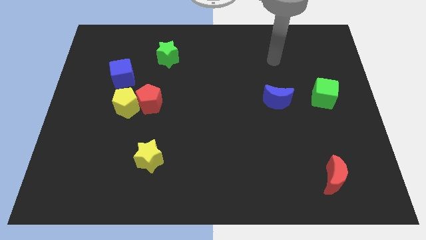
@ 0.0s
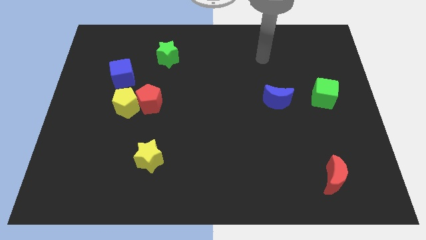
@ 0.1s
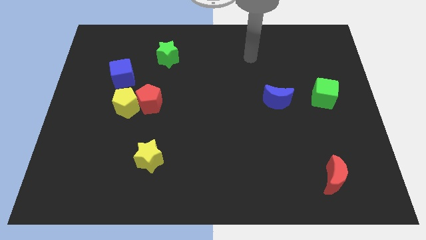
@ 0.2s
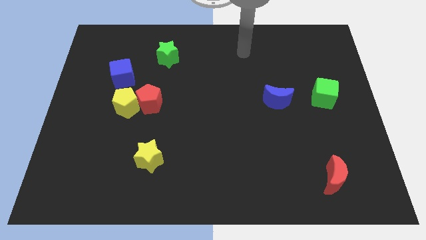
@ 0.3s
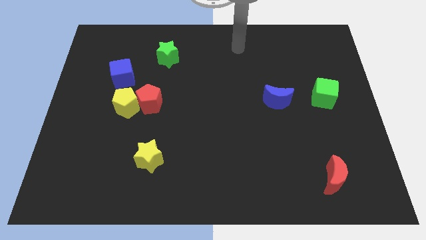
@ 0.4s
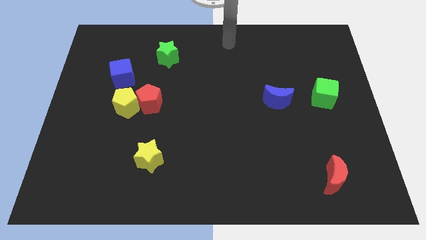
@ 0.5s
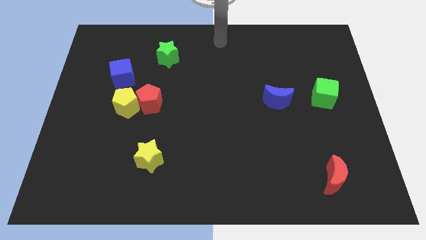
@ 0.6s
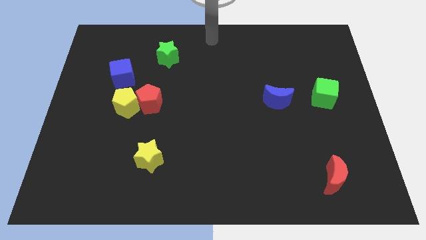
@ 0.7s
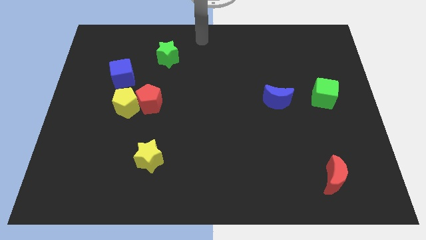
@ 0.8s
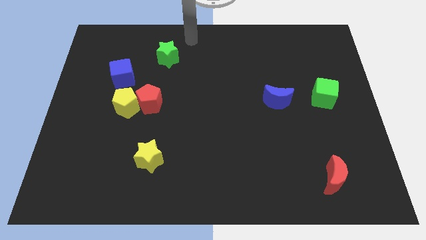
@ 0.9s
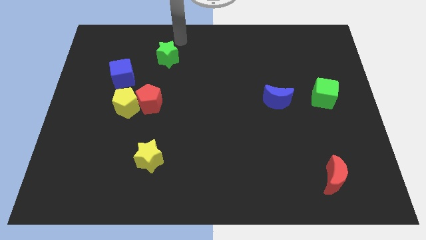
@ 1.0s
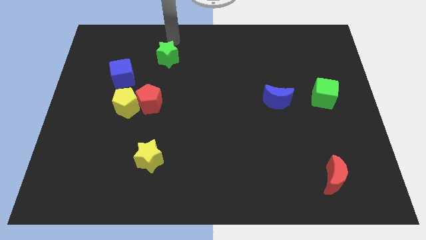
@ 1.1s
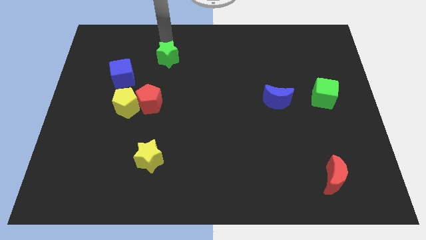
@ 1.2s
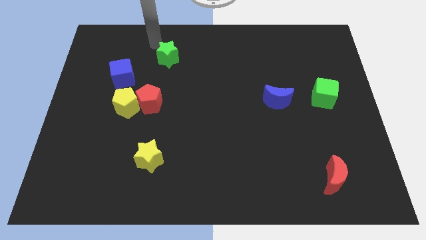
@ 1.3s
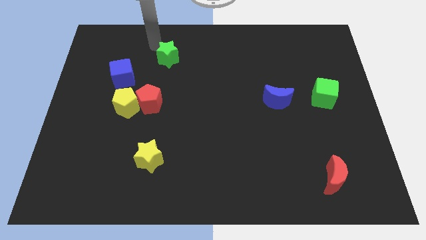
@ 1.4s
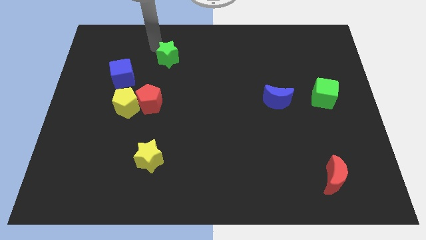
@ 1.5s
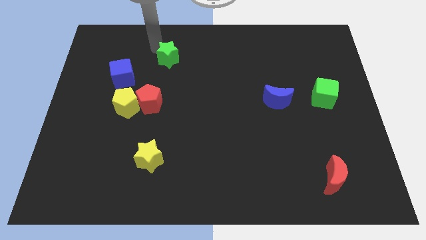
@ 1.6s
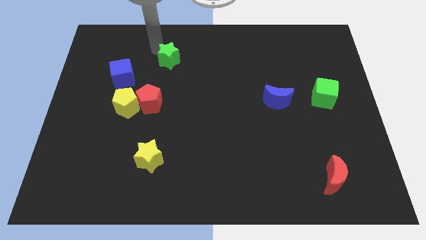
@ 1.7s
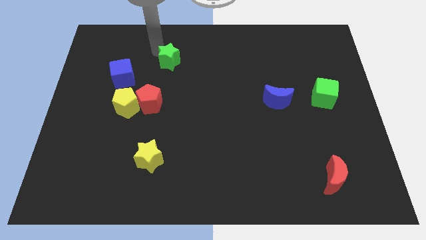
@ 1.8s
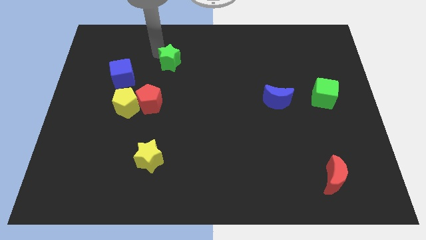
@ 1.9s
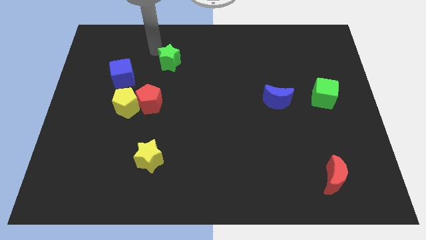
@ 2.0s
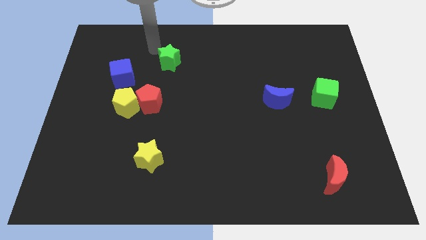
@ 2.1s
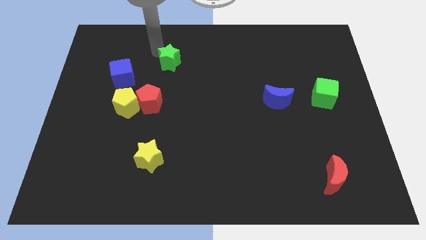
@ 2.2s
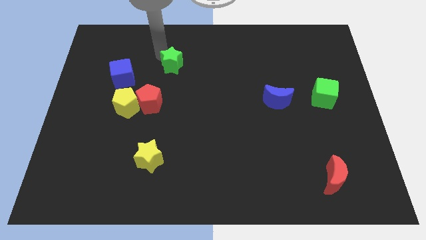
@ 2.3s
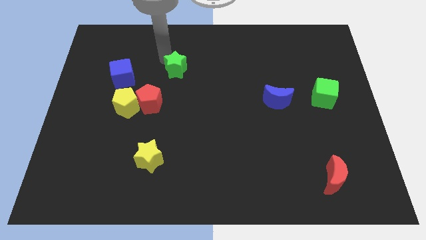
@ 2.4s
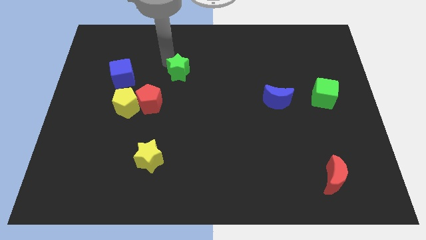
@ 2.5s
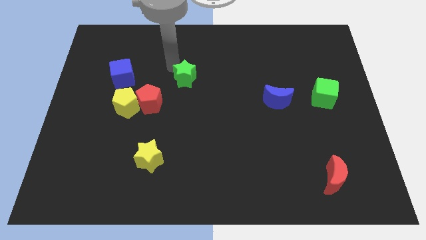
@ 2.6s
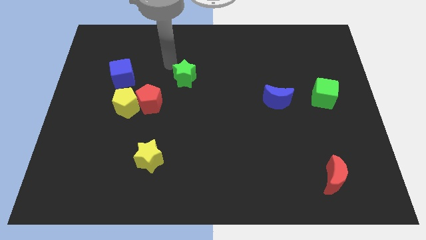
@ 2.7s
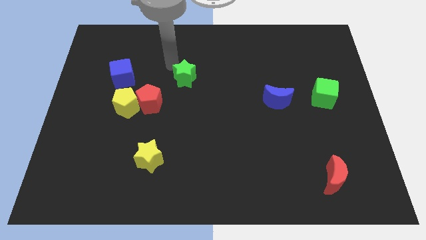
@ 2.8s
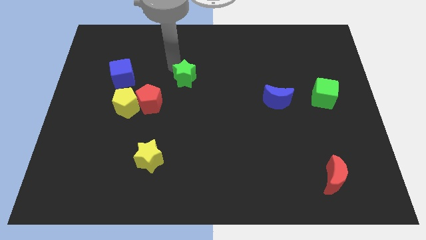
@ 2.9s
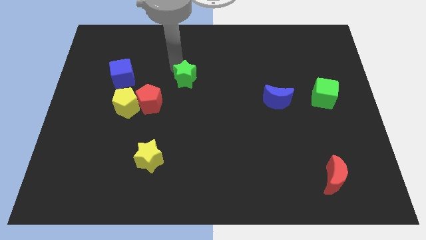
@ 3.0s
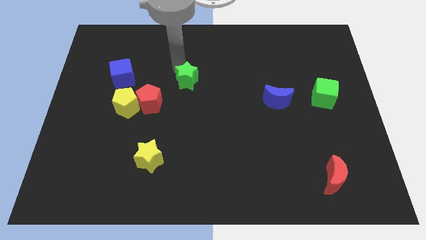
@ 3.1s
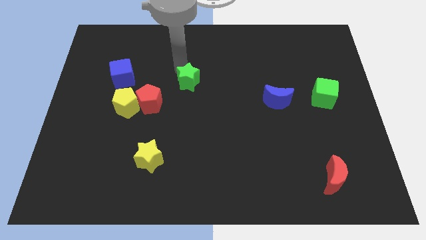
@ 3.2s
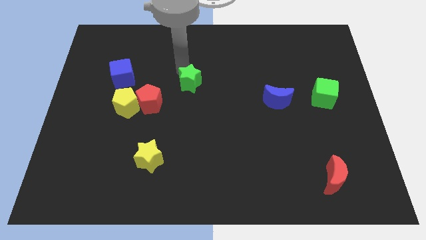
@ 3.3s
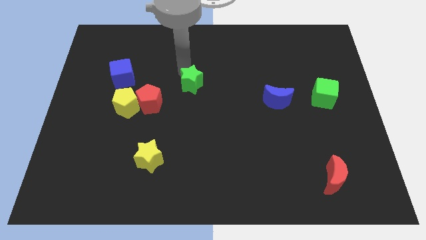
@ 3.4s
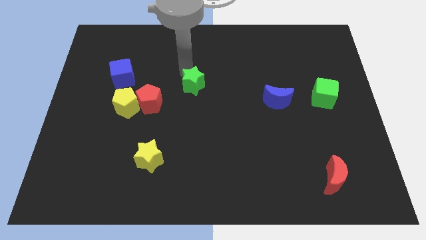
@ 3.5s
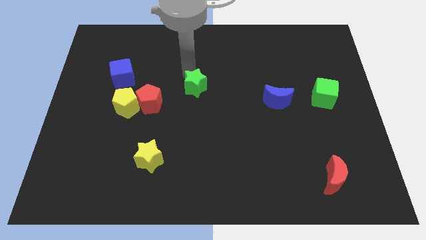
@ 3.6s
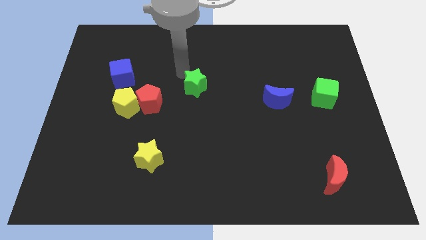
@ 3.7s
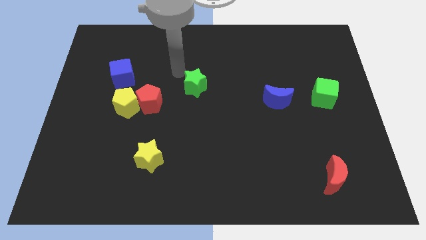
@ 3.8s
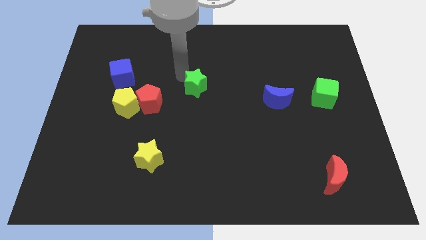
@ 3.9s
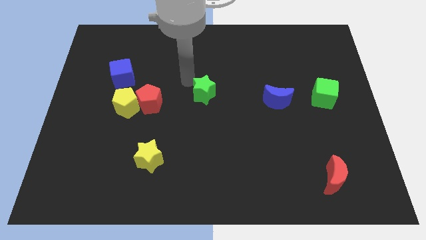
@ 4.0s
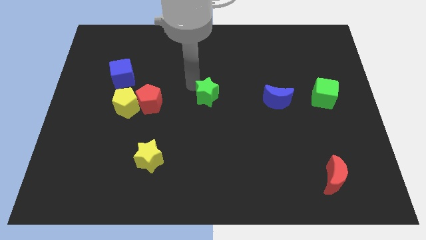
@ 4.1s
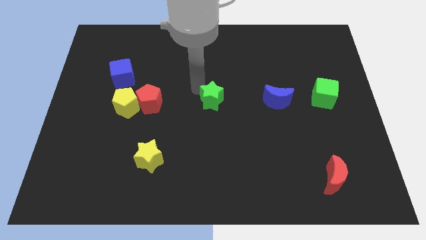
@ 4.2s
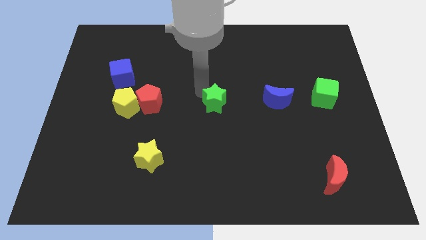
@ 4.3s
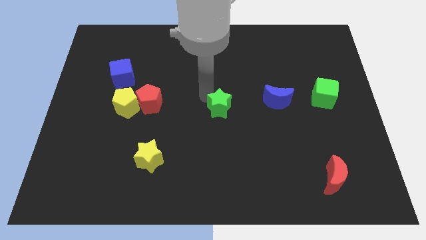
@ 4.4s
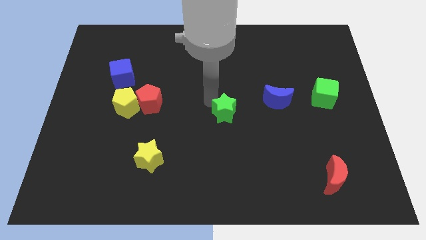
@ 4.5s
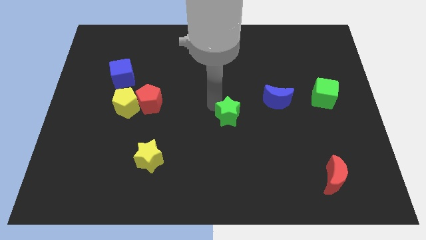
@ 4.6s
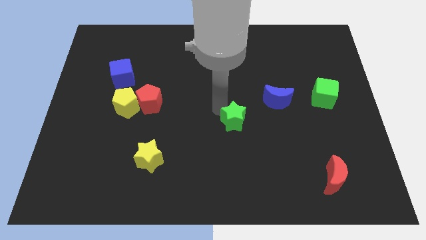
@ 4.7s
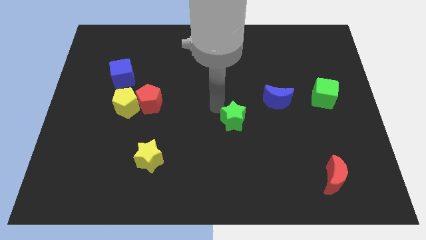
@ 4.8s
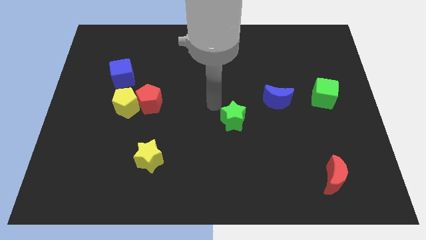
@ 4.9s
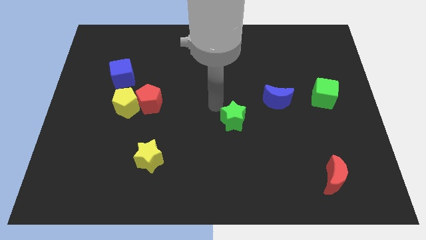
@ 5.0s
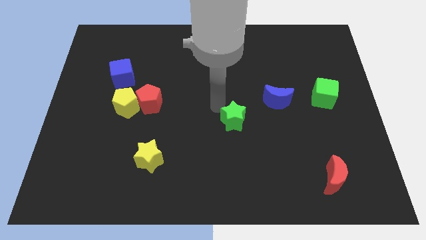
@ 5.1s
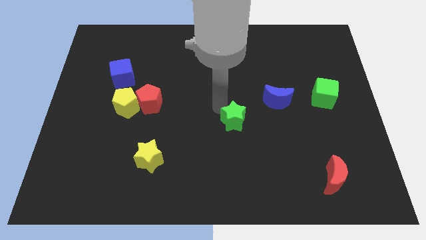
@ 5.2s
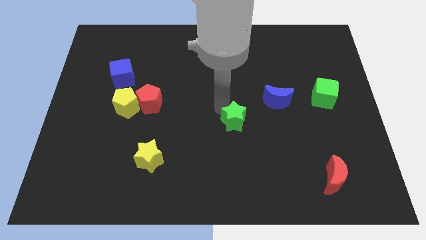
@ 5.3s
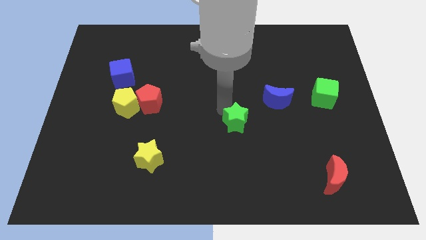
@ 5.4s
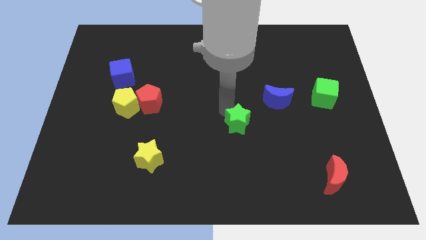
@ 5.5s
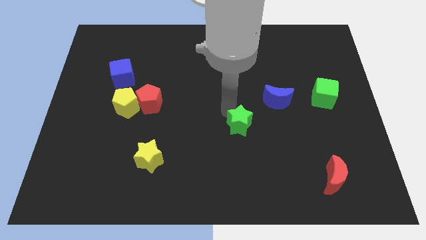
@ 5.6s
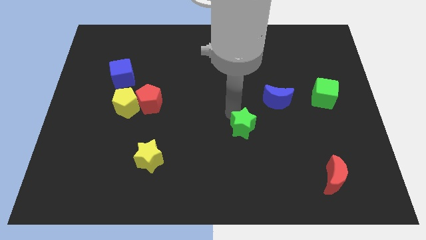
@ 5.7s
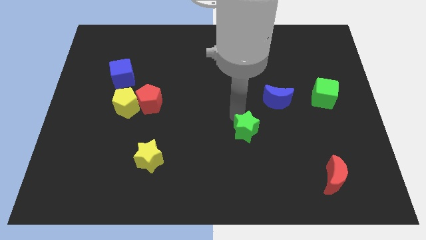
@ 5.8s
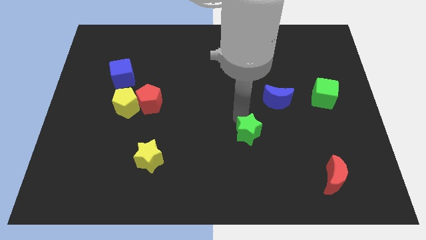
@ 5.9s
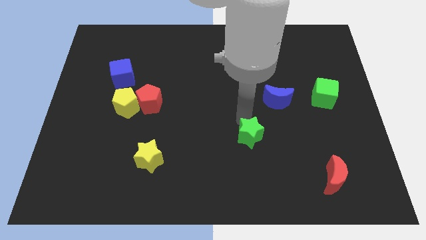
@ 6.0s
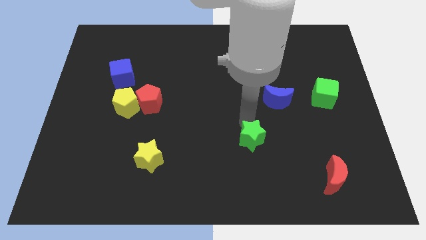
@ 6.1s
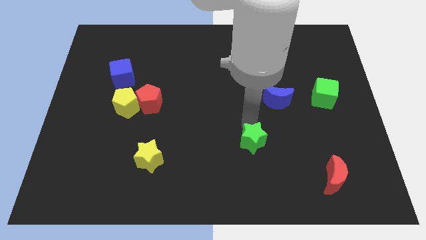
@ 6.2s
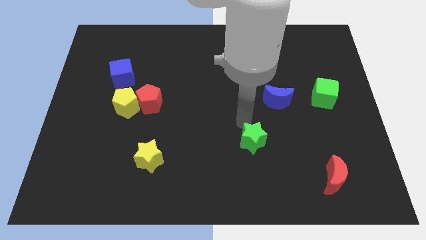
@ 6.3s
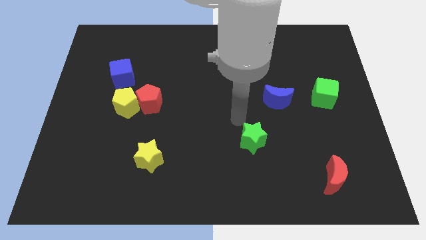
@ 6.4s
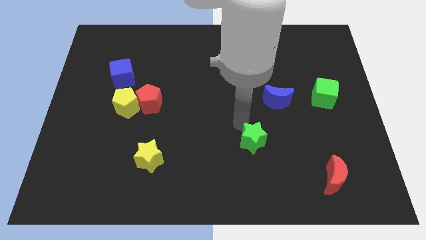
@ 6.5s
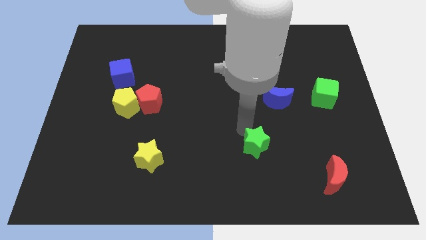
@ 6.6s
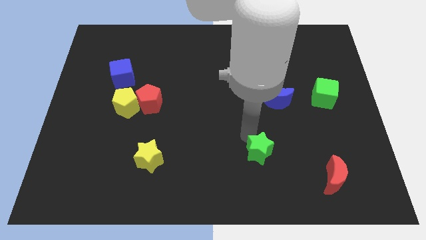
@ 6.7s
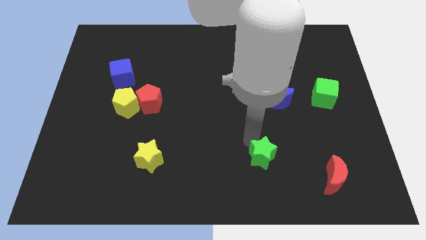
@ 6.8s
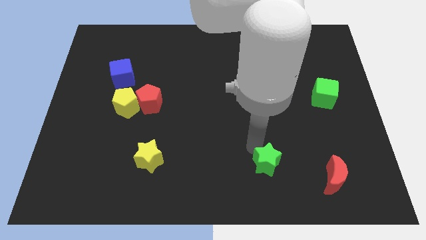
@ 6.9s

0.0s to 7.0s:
put the green star to the left of the red moon
